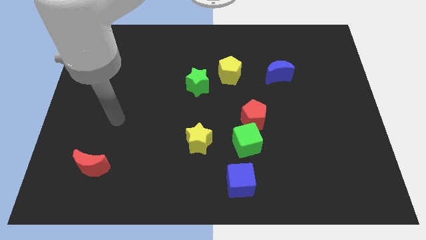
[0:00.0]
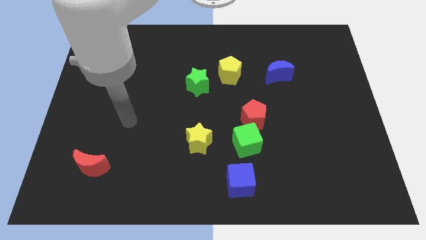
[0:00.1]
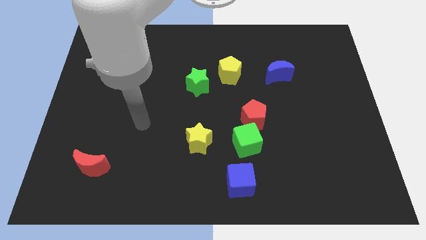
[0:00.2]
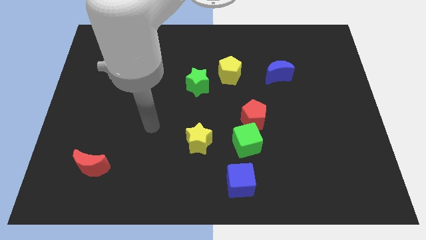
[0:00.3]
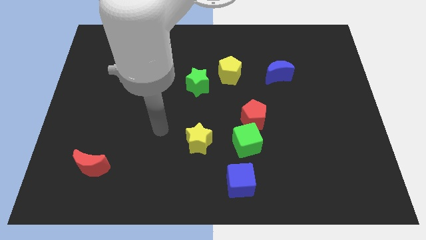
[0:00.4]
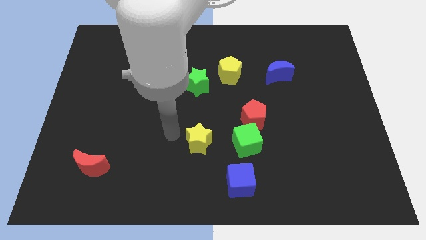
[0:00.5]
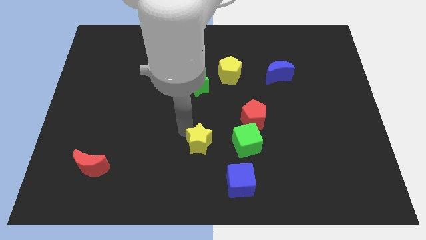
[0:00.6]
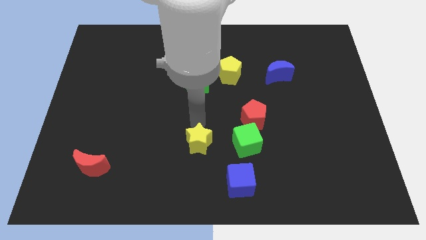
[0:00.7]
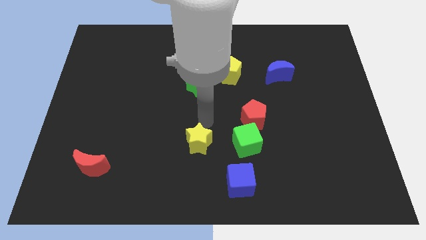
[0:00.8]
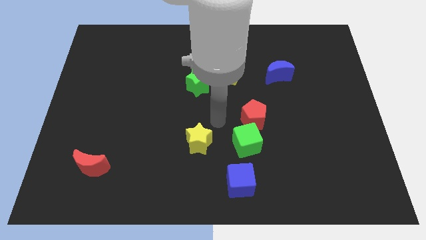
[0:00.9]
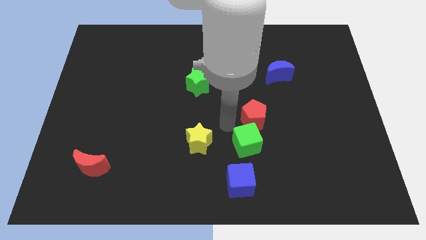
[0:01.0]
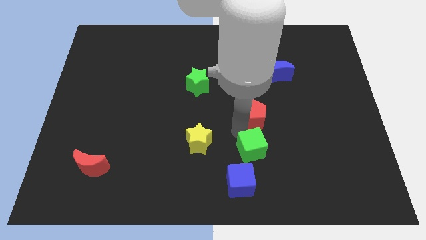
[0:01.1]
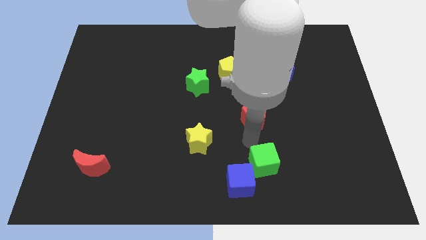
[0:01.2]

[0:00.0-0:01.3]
pull the red pentagon apart from the green cube

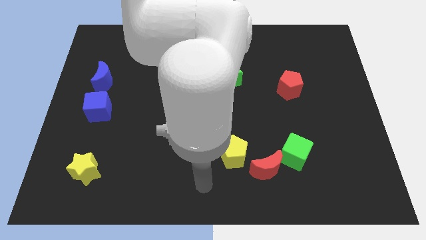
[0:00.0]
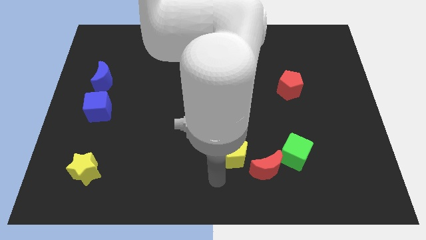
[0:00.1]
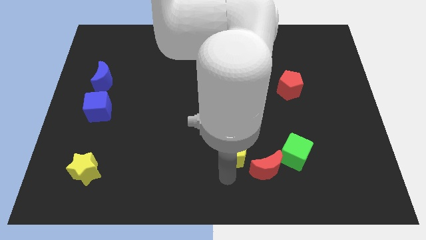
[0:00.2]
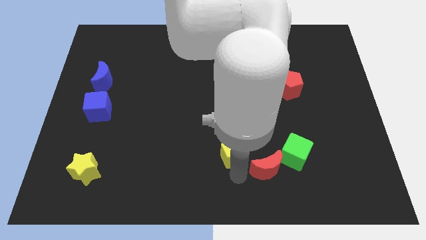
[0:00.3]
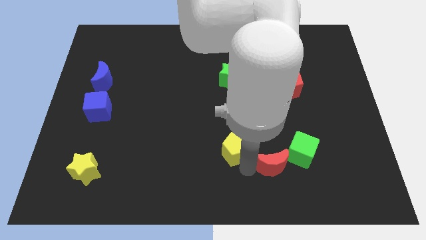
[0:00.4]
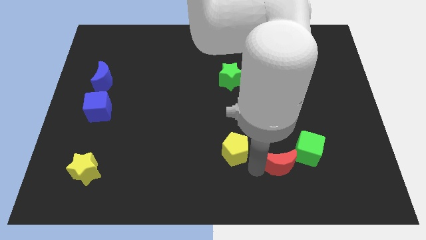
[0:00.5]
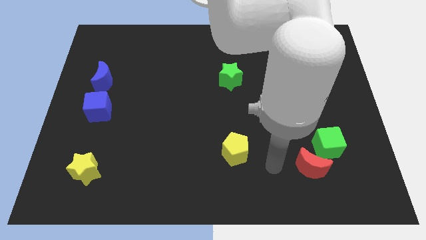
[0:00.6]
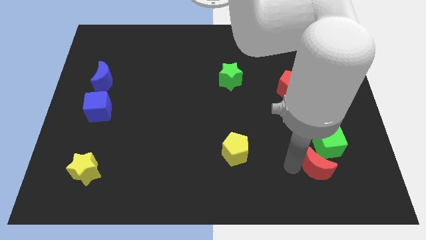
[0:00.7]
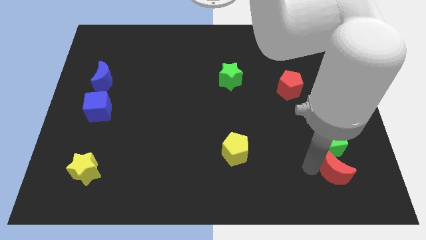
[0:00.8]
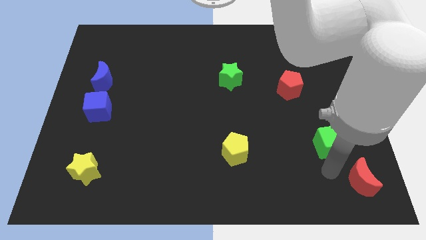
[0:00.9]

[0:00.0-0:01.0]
separate the green cube from the red moon

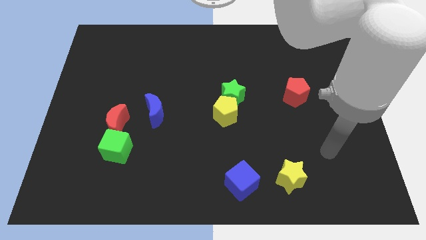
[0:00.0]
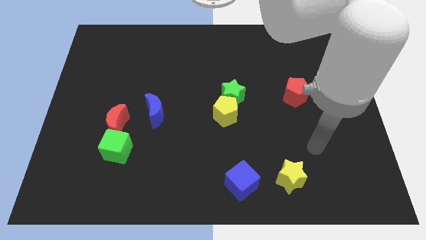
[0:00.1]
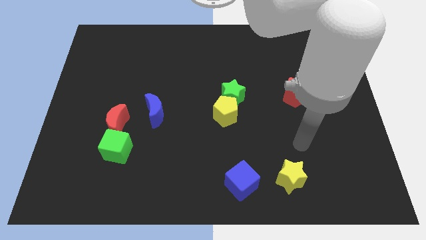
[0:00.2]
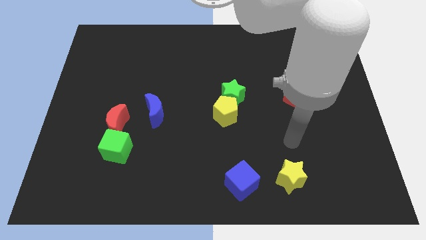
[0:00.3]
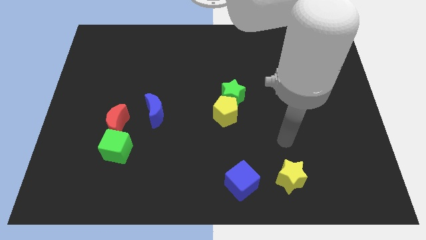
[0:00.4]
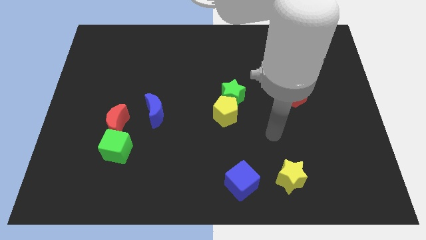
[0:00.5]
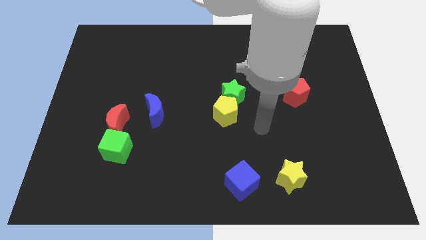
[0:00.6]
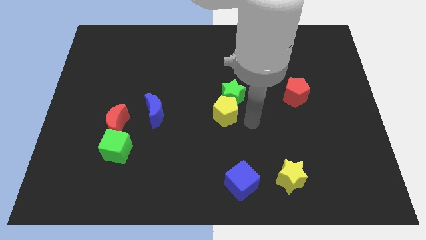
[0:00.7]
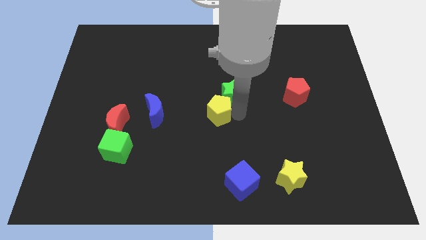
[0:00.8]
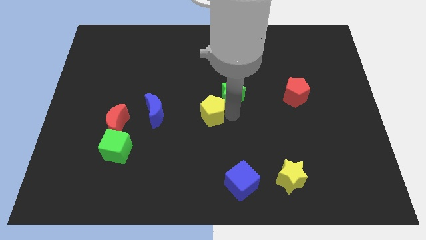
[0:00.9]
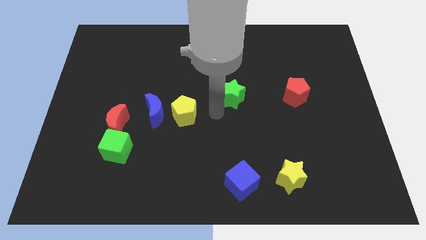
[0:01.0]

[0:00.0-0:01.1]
separate the green star from the yellow pentagon

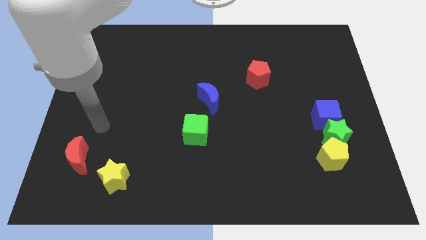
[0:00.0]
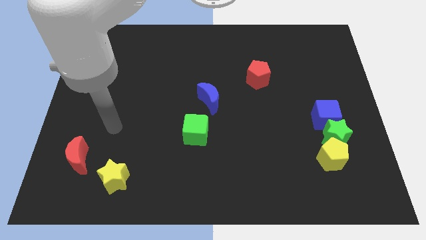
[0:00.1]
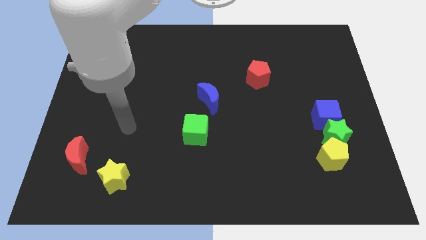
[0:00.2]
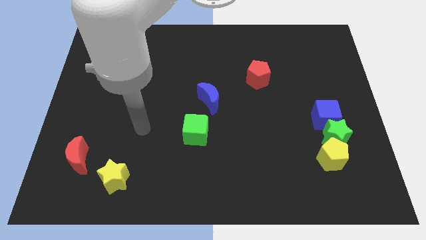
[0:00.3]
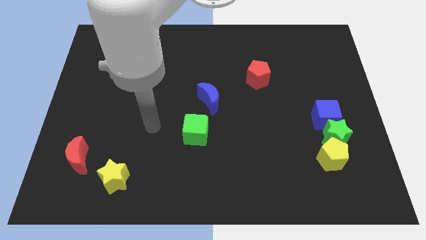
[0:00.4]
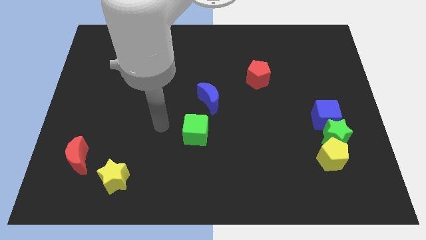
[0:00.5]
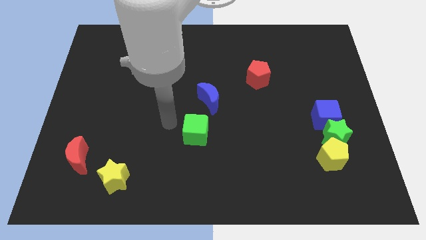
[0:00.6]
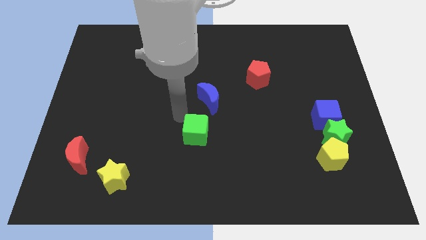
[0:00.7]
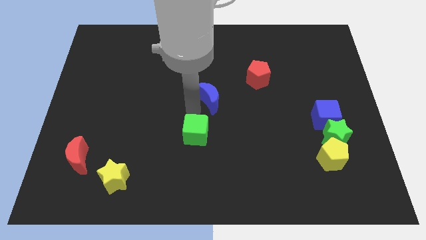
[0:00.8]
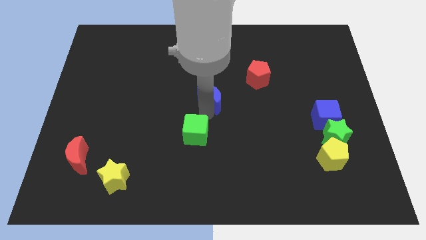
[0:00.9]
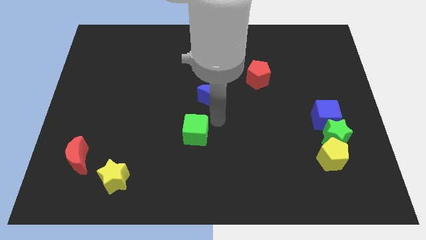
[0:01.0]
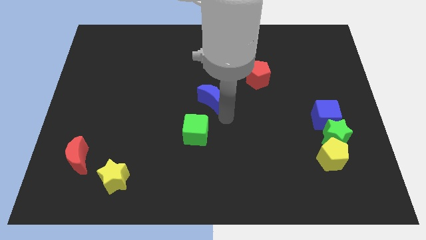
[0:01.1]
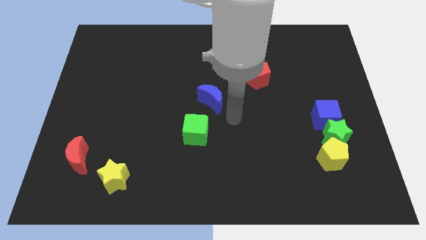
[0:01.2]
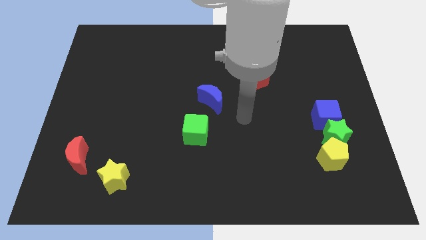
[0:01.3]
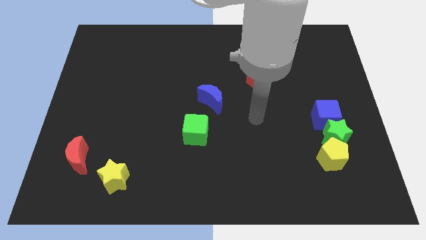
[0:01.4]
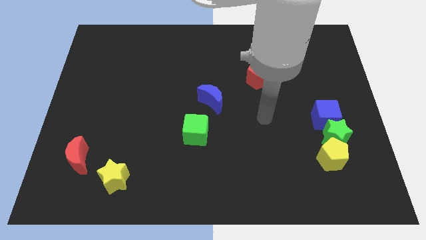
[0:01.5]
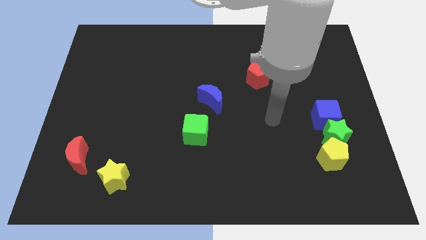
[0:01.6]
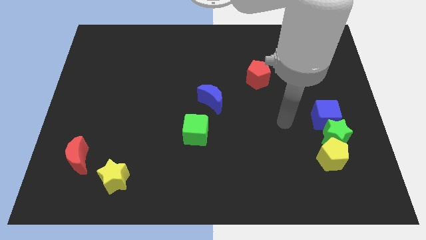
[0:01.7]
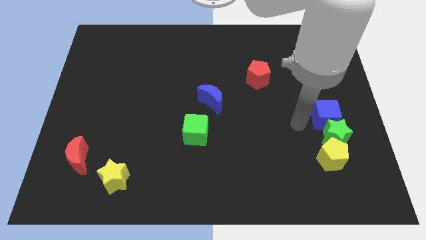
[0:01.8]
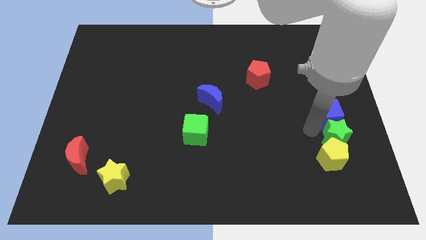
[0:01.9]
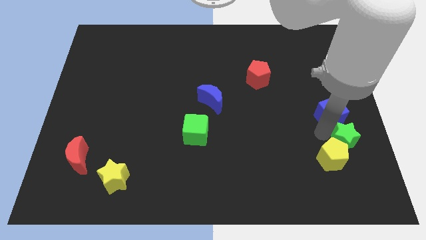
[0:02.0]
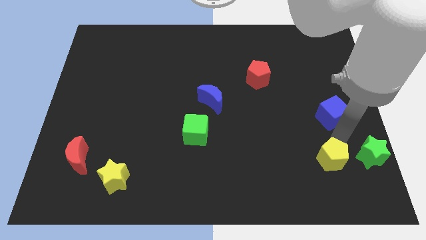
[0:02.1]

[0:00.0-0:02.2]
separate the blue cube from the green star

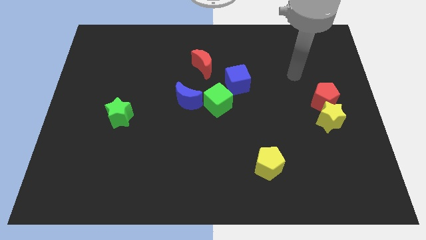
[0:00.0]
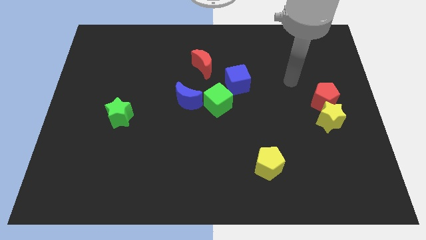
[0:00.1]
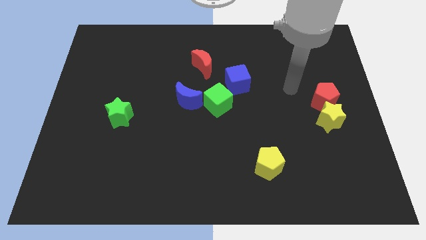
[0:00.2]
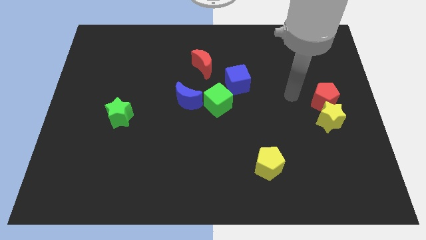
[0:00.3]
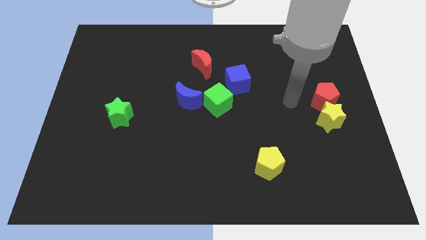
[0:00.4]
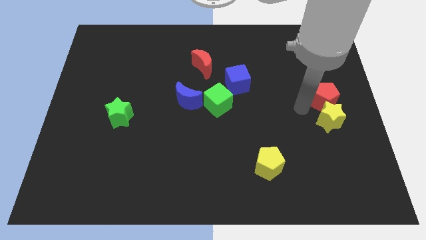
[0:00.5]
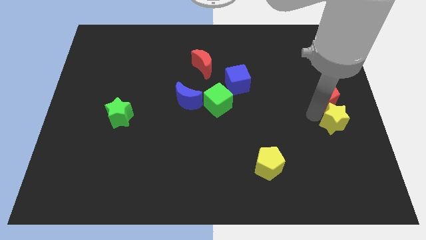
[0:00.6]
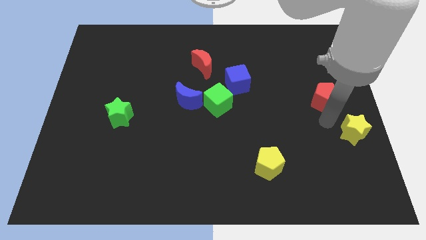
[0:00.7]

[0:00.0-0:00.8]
pull the red pentagon apart from the yellow star

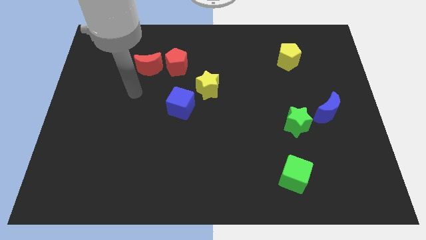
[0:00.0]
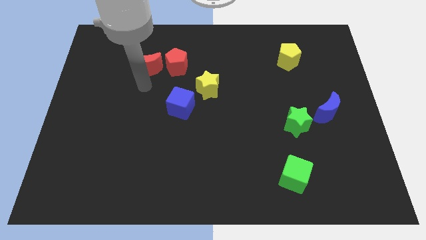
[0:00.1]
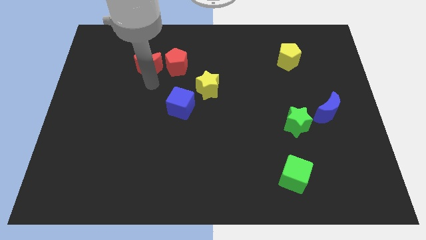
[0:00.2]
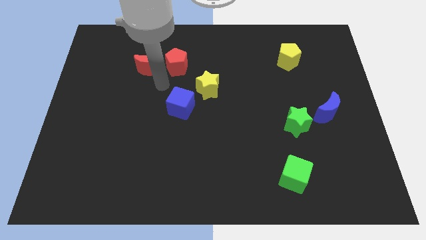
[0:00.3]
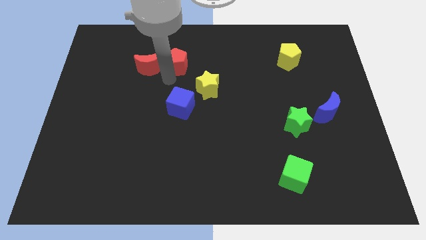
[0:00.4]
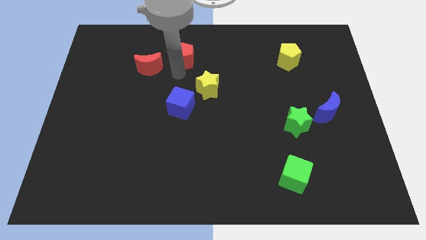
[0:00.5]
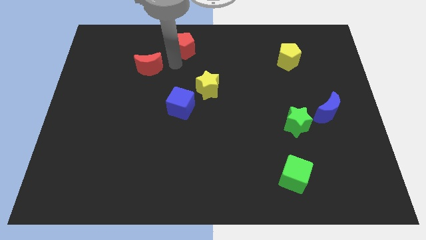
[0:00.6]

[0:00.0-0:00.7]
pull the red moon apart from the red pentagon

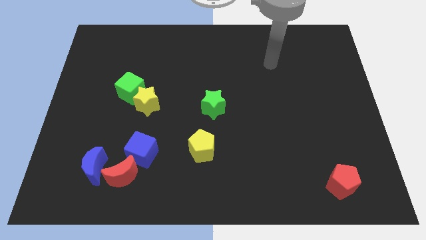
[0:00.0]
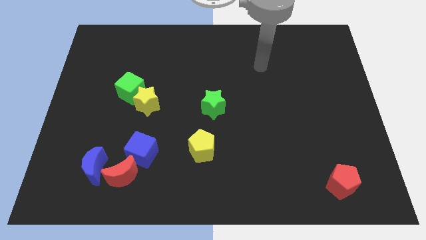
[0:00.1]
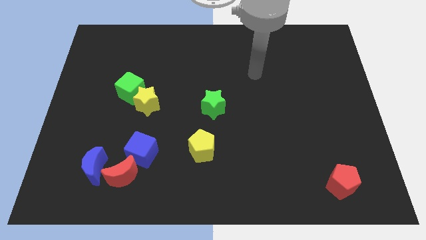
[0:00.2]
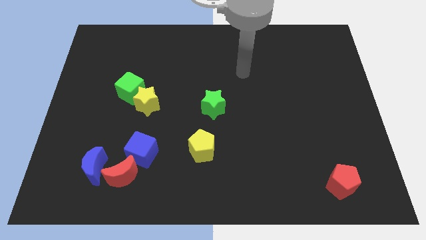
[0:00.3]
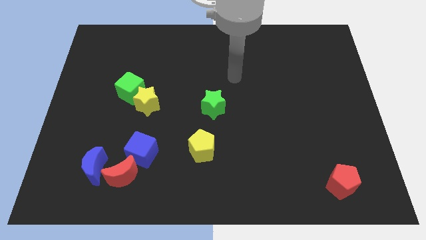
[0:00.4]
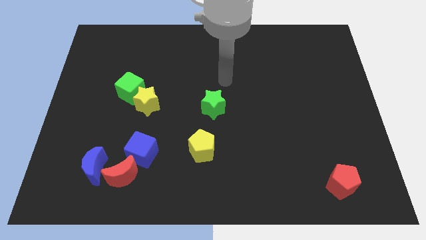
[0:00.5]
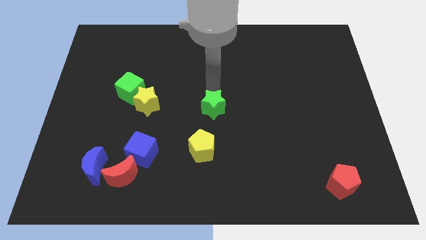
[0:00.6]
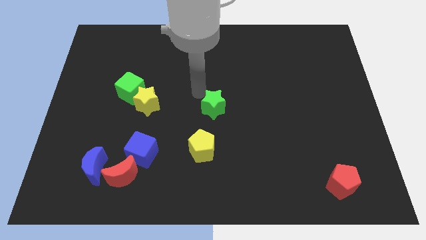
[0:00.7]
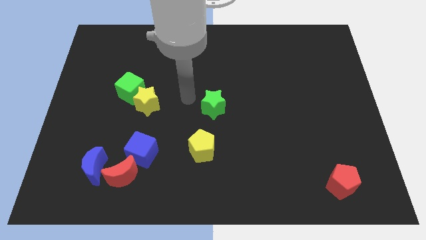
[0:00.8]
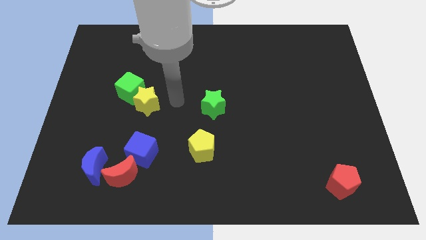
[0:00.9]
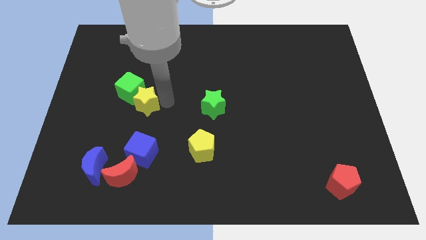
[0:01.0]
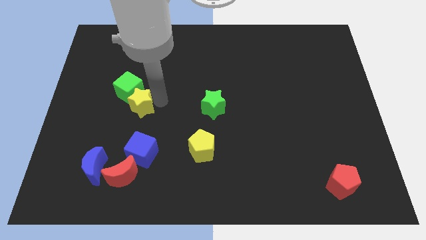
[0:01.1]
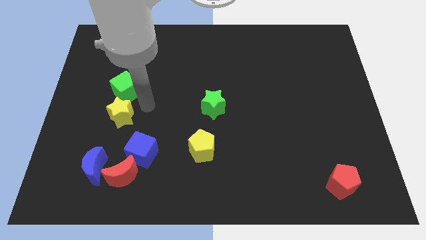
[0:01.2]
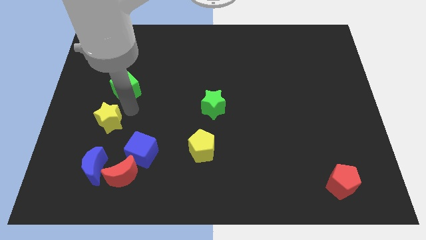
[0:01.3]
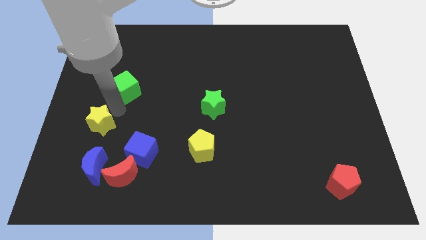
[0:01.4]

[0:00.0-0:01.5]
separate the green cube from the yellow star

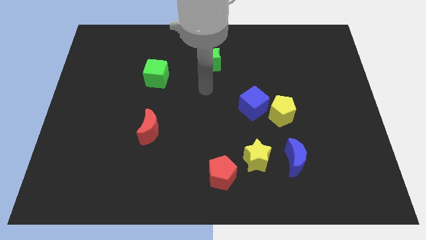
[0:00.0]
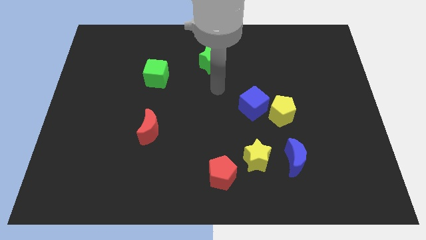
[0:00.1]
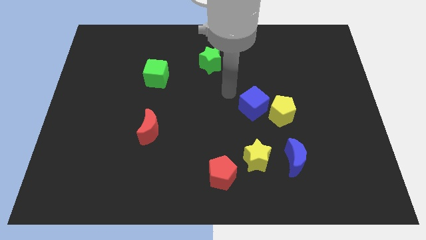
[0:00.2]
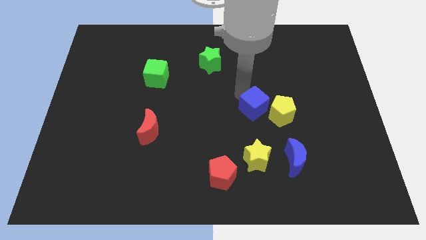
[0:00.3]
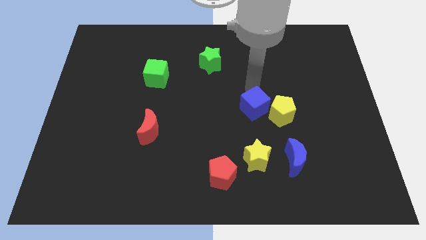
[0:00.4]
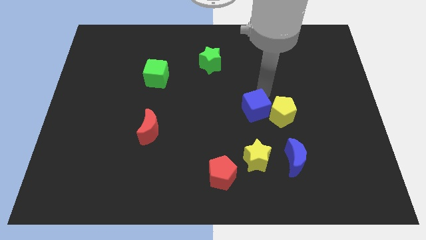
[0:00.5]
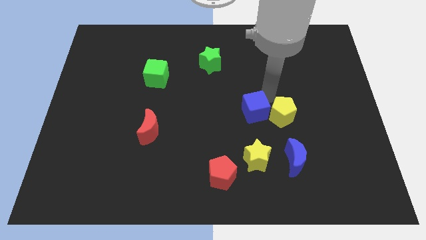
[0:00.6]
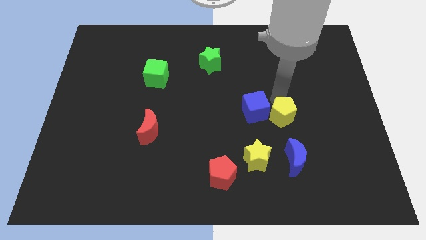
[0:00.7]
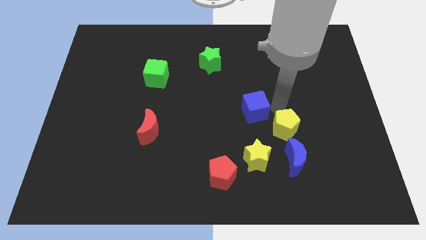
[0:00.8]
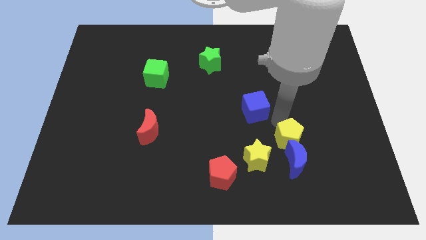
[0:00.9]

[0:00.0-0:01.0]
pull the blue cube apart from the yellow pentagon
